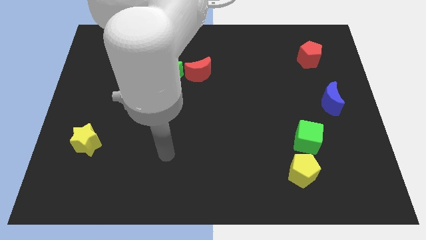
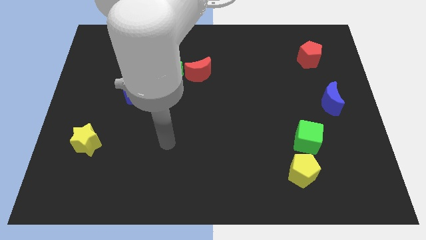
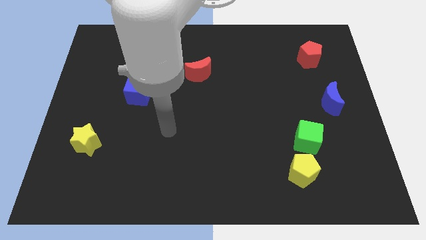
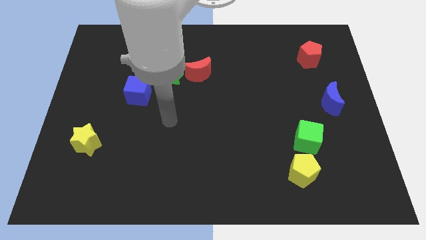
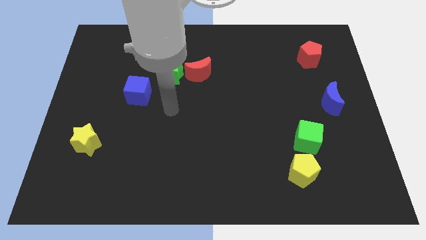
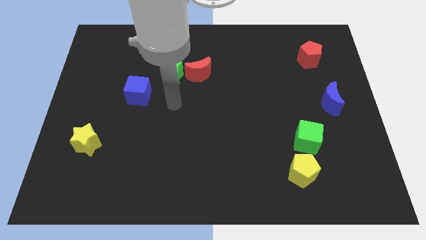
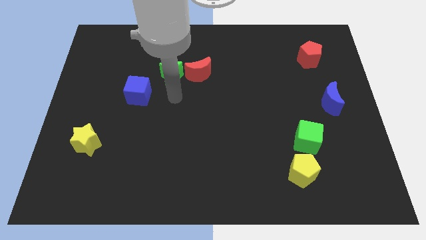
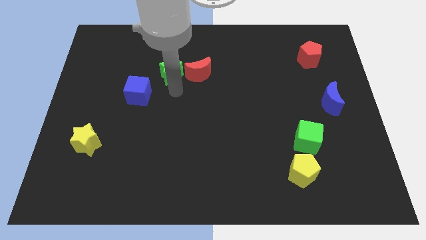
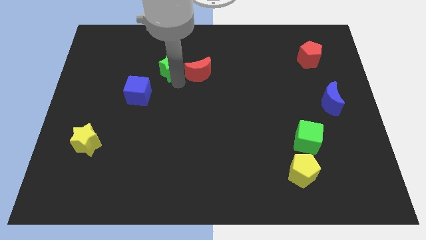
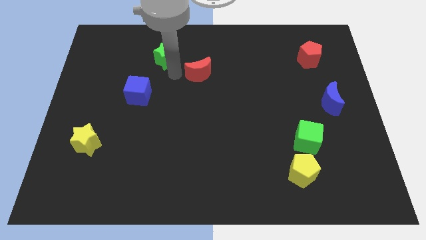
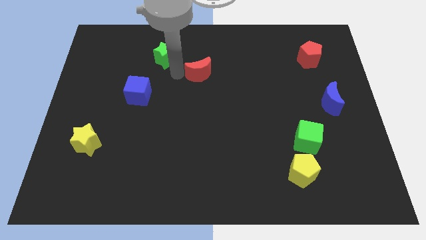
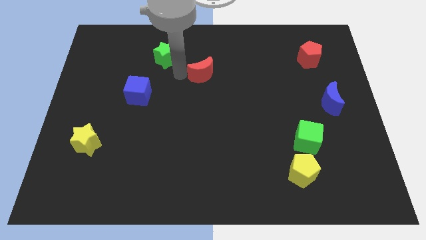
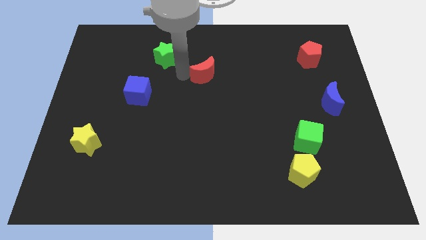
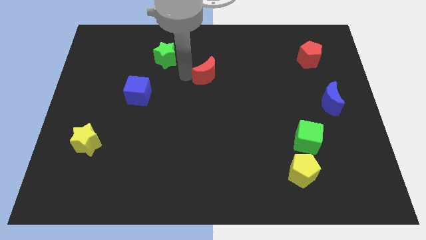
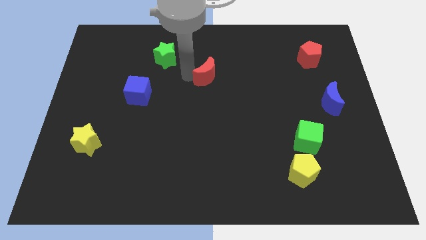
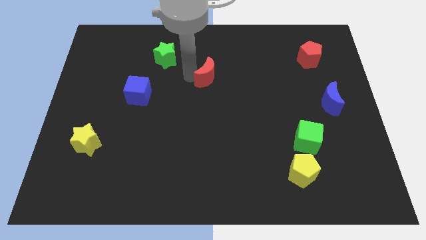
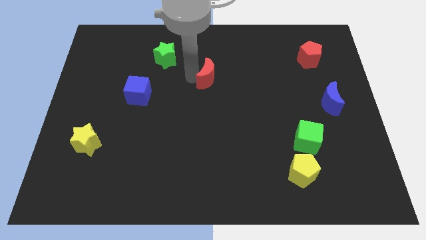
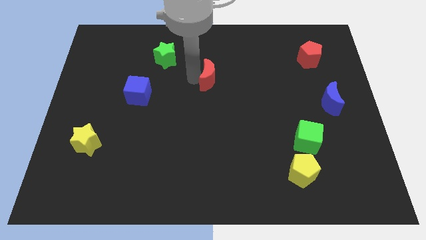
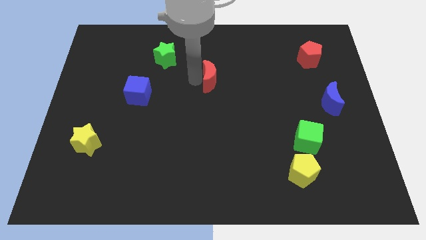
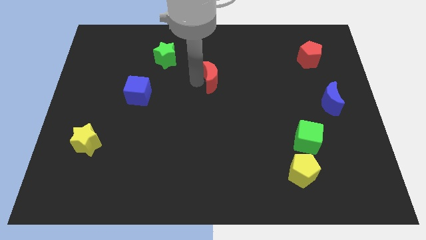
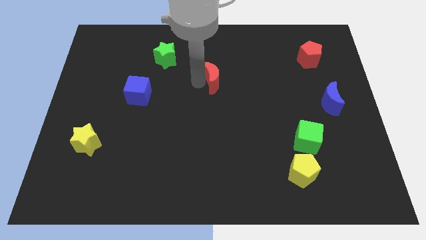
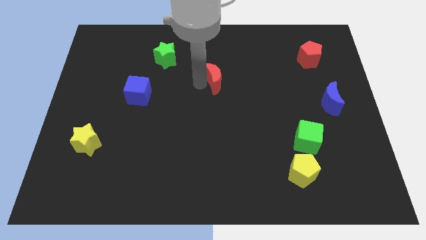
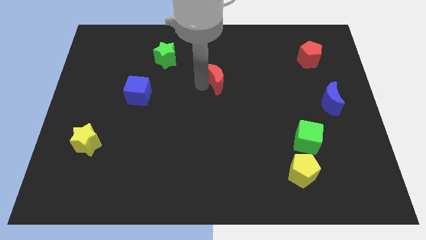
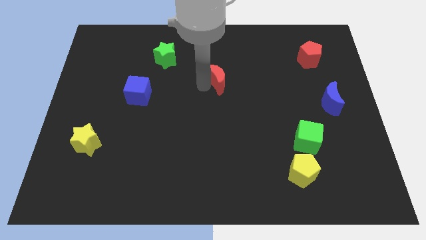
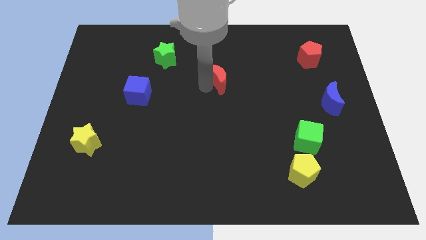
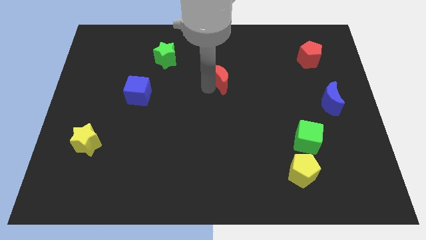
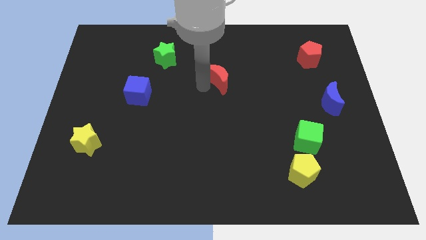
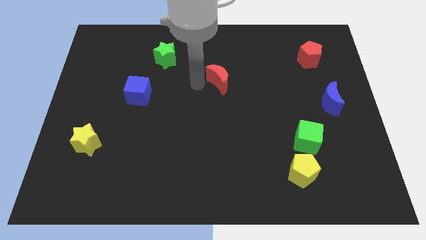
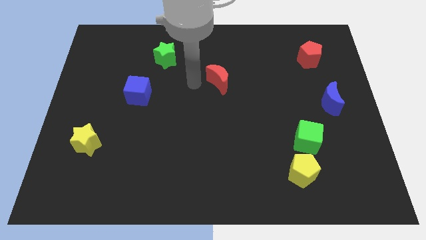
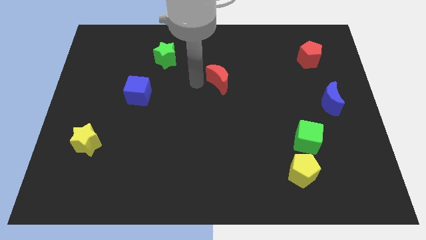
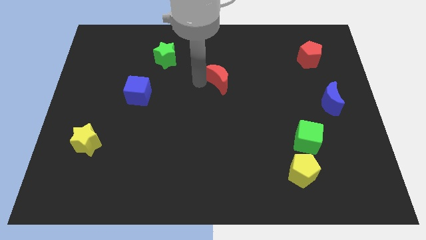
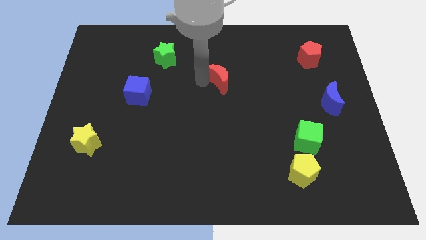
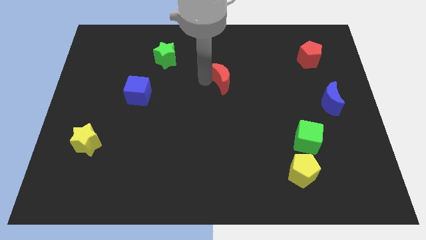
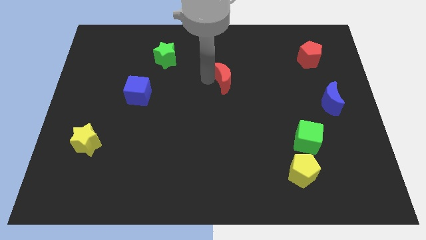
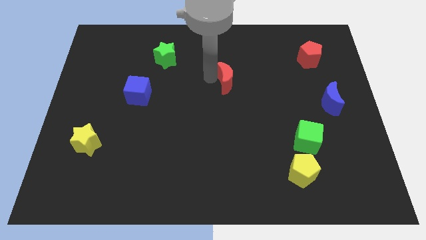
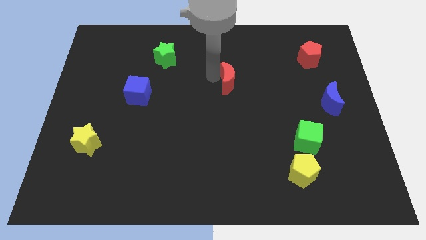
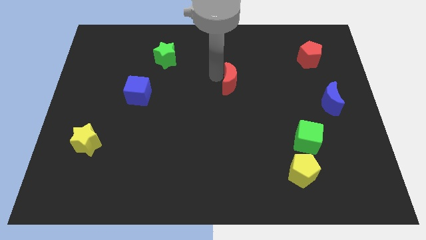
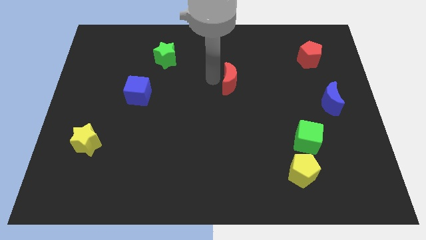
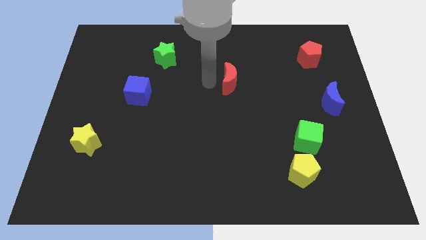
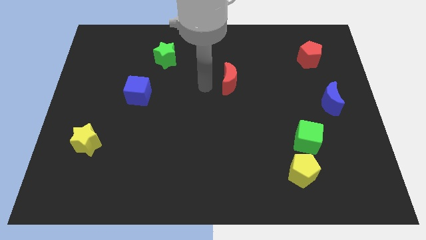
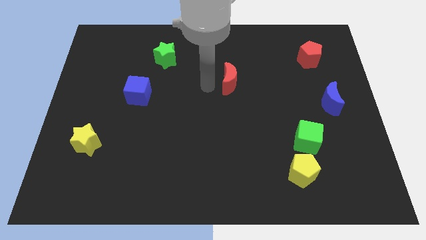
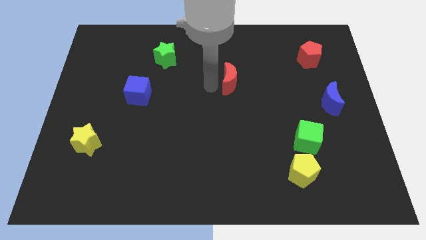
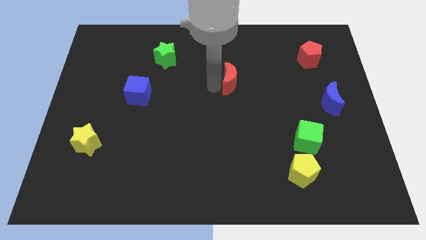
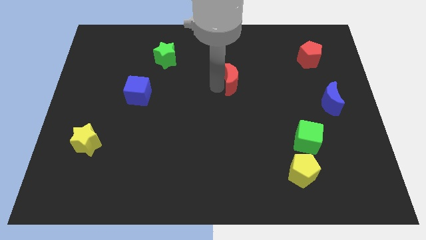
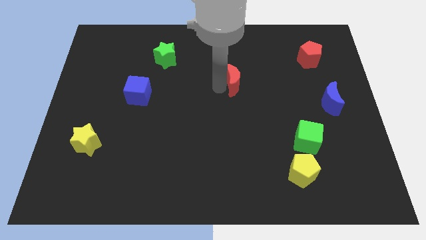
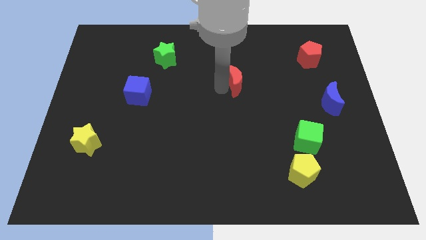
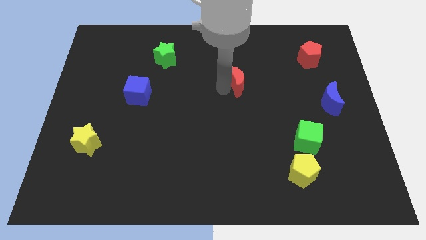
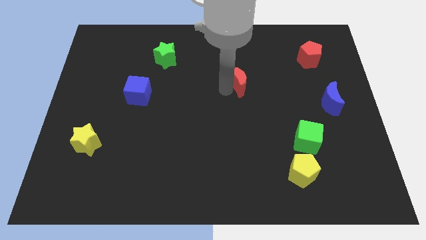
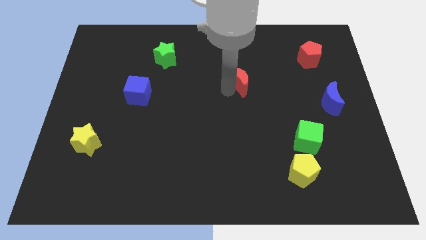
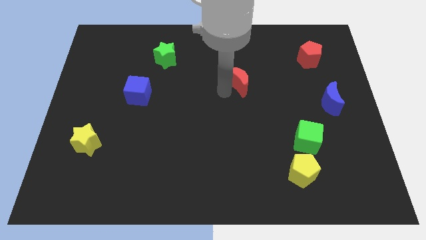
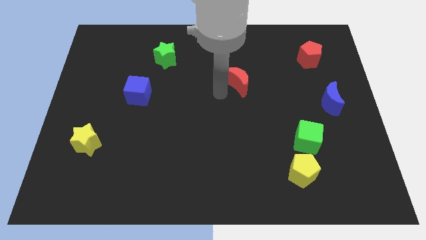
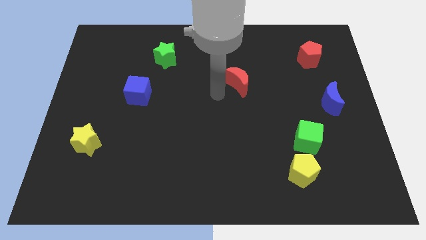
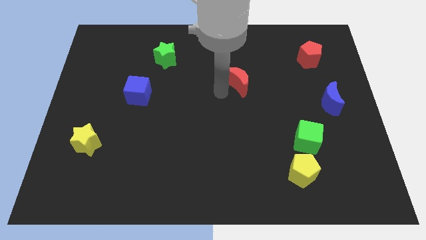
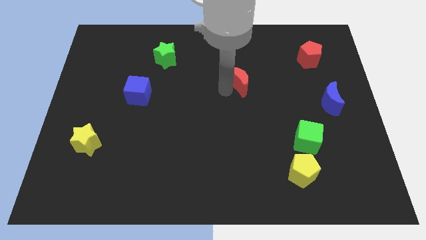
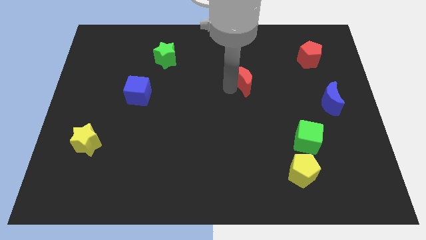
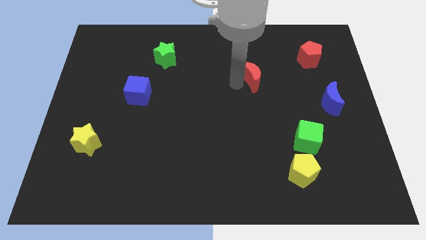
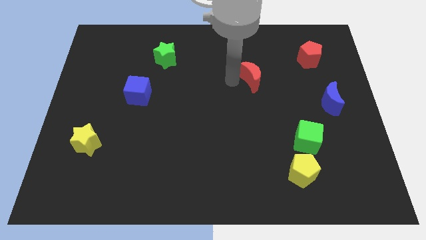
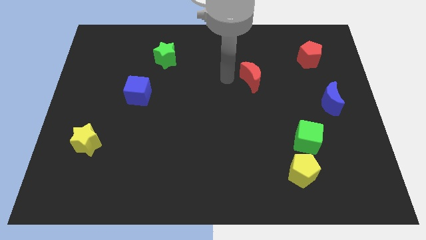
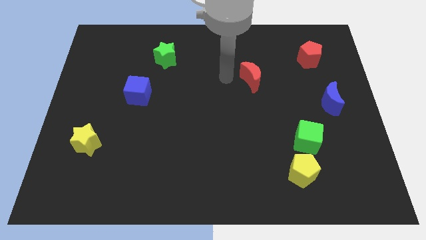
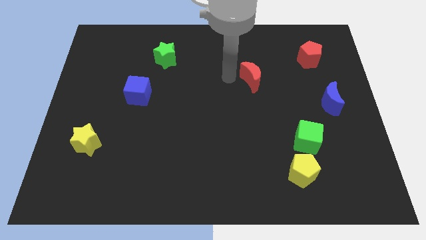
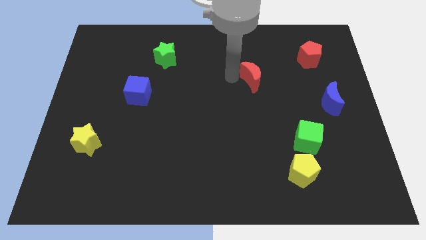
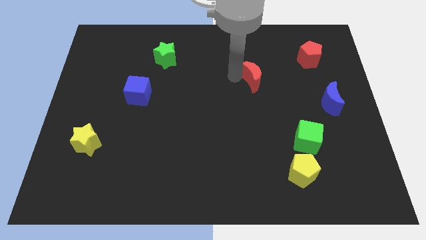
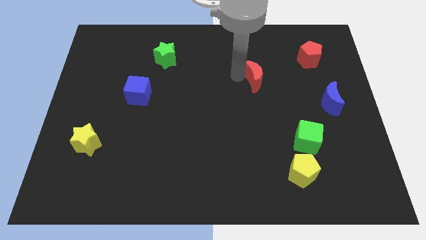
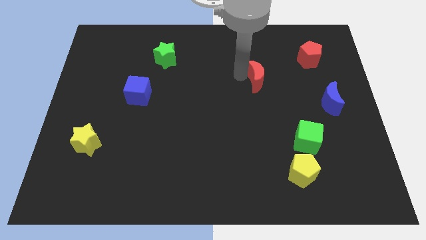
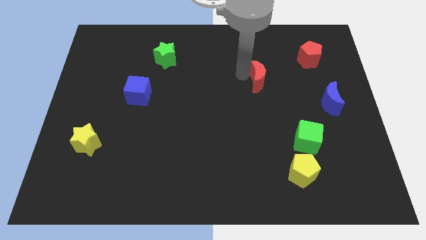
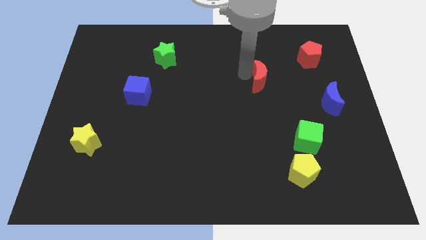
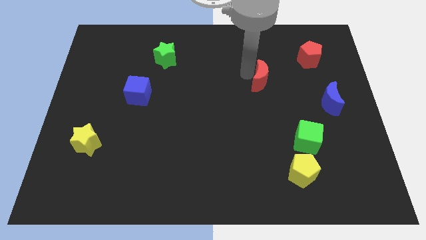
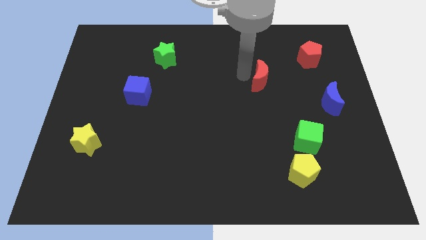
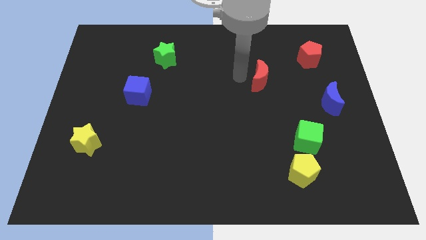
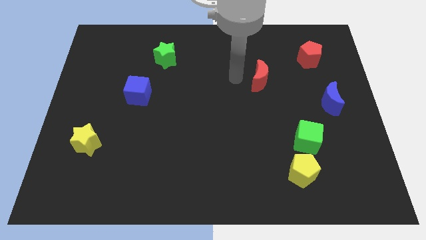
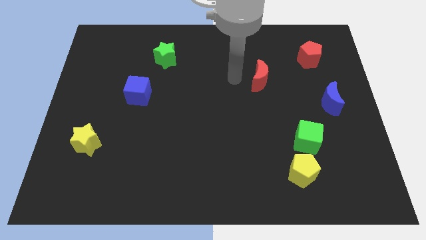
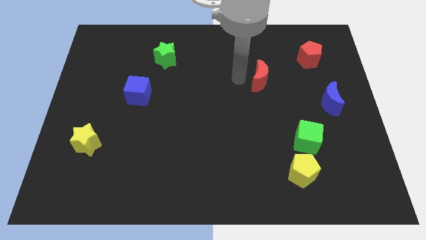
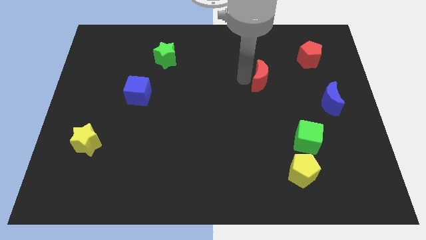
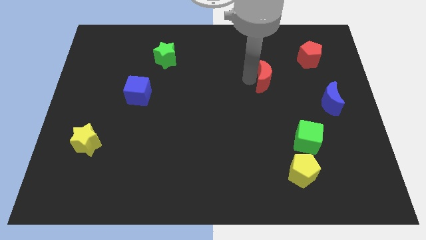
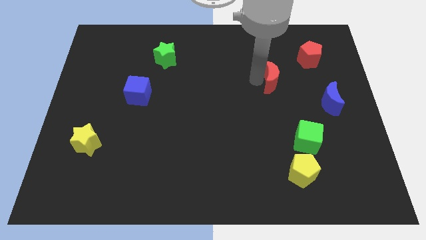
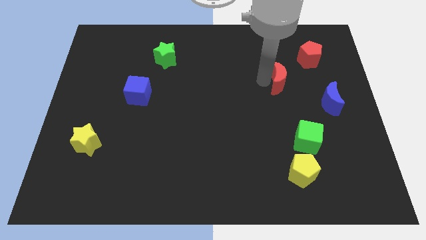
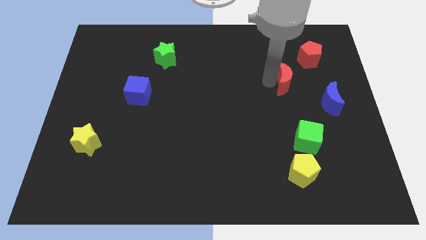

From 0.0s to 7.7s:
push the red moon to the right

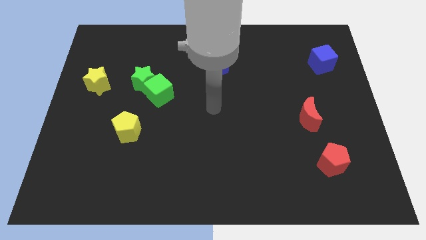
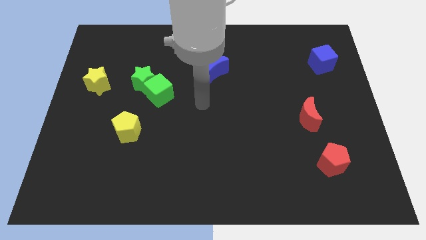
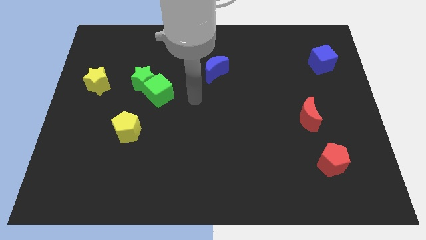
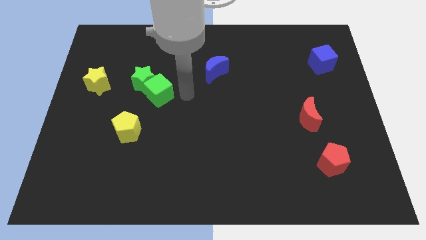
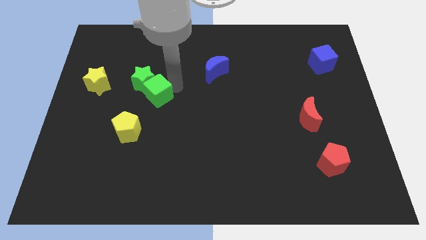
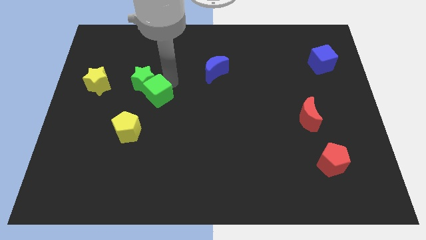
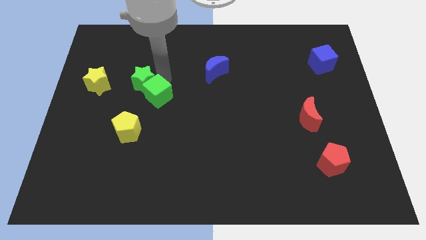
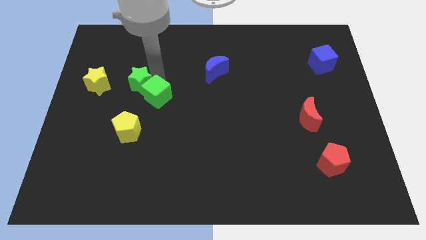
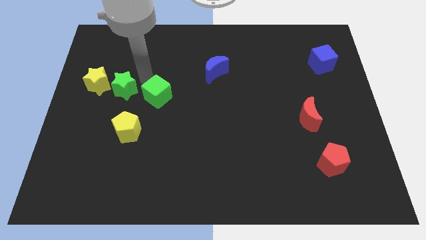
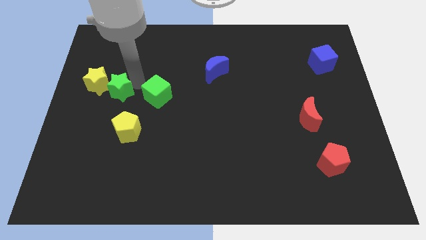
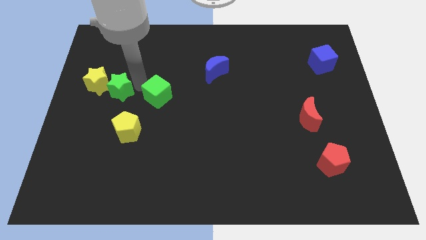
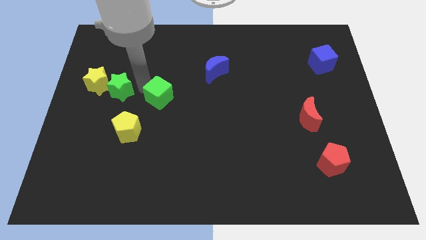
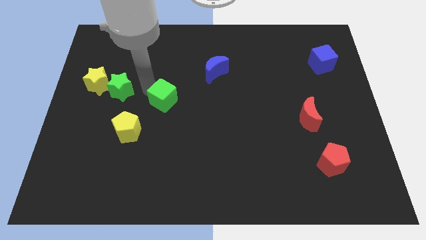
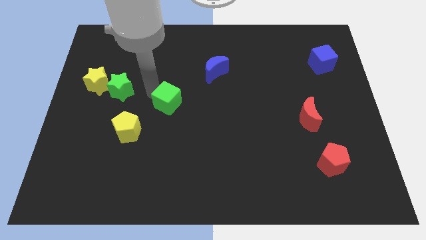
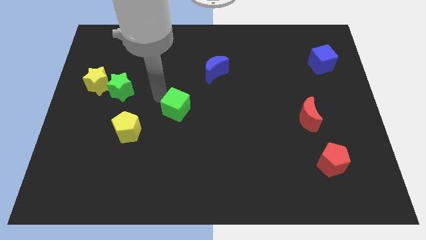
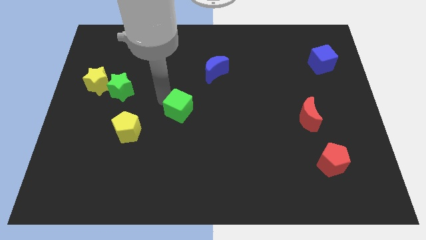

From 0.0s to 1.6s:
slightly move the green cube down and to the right
